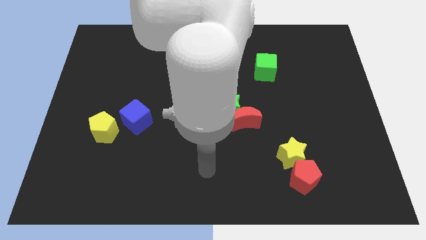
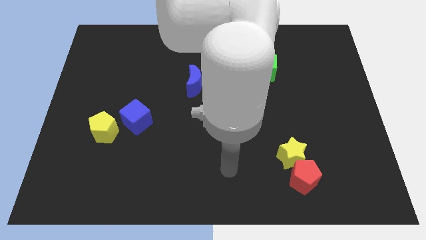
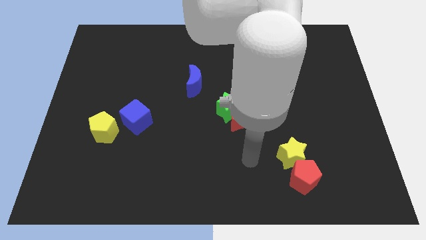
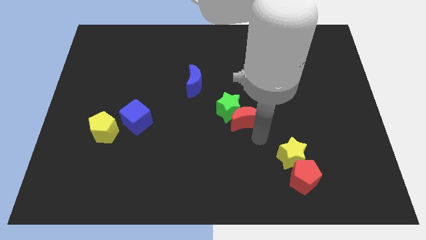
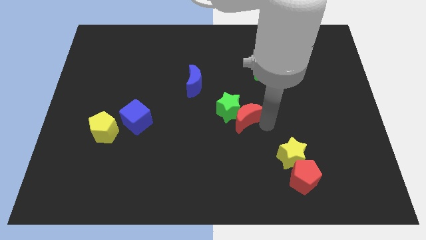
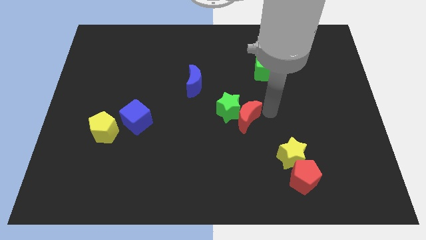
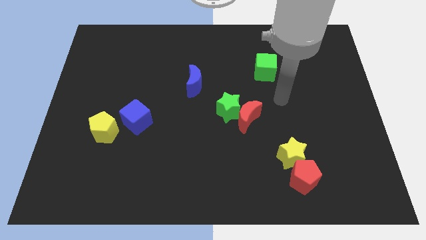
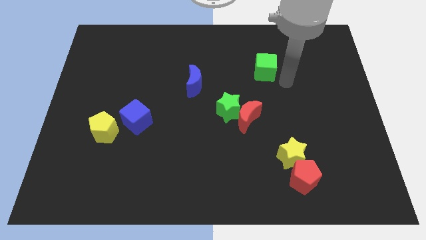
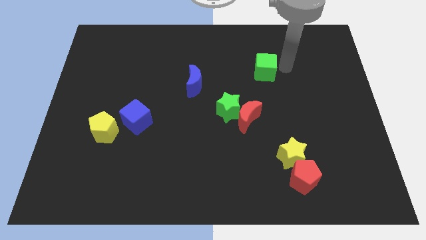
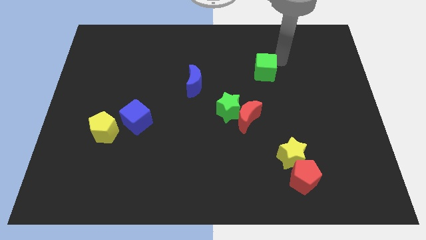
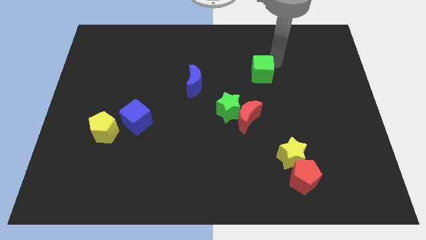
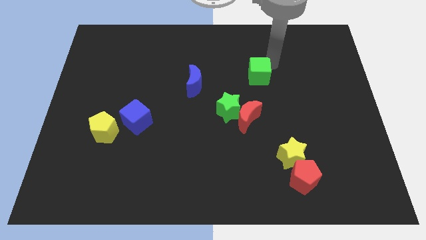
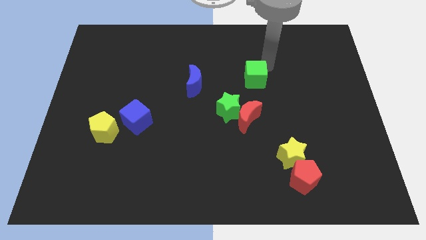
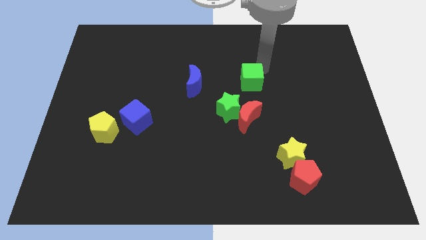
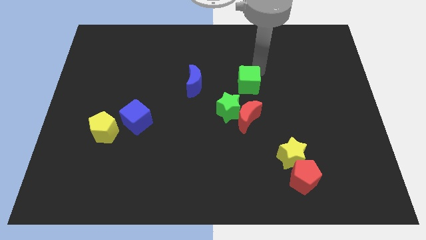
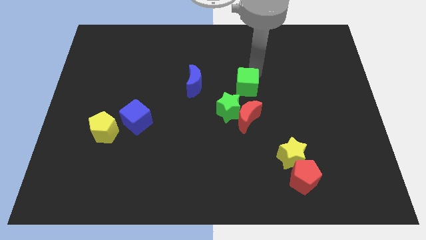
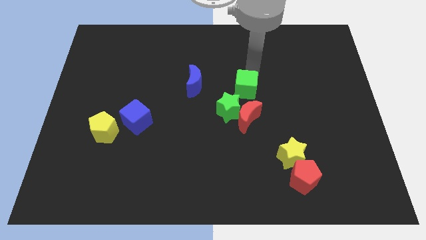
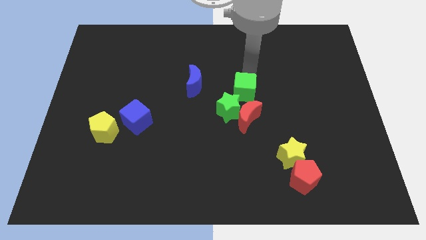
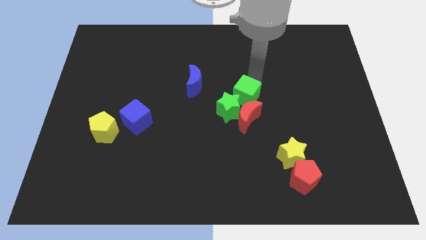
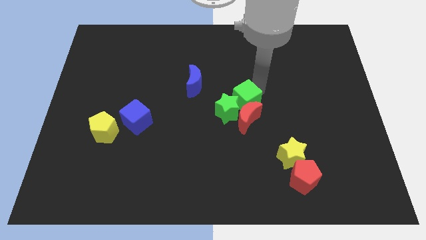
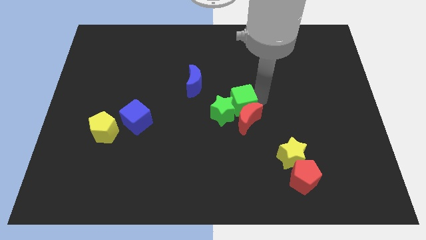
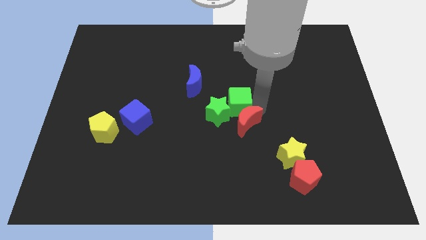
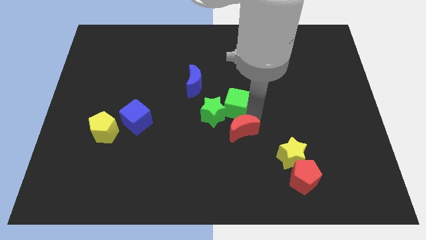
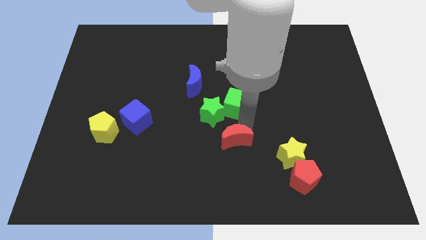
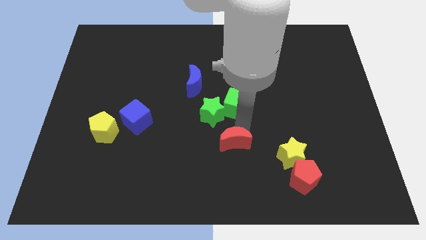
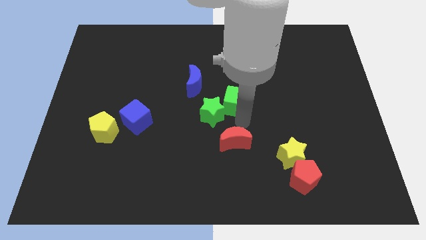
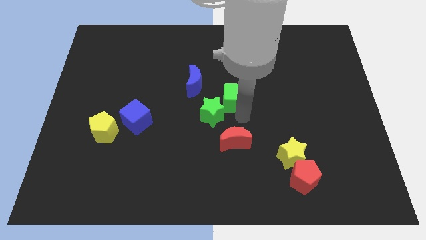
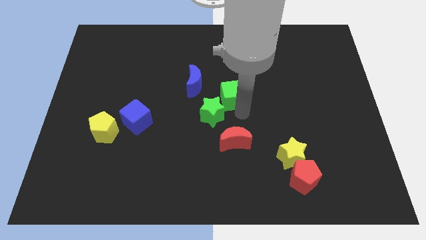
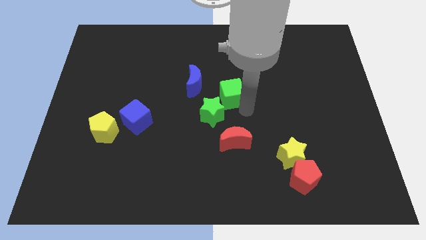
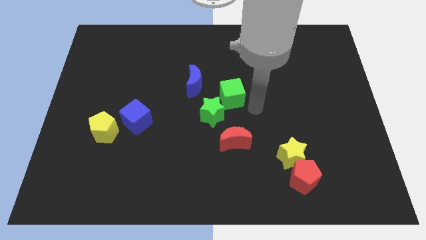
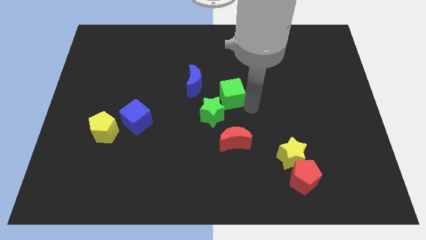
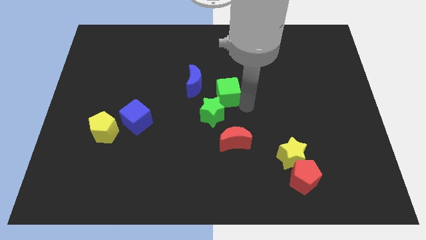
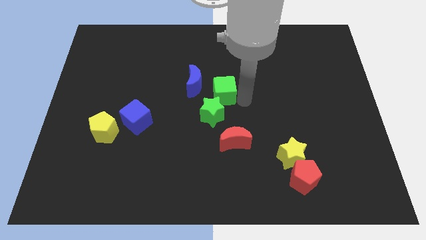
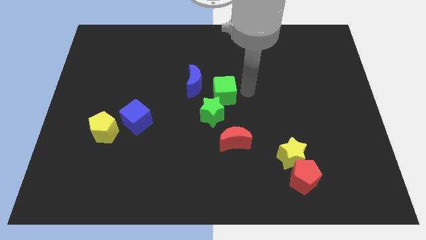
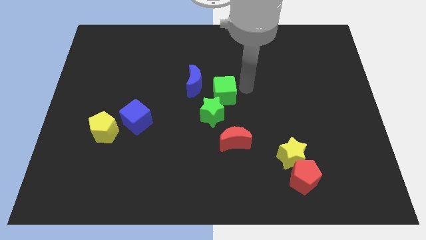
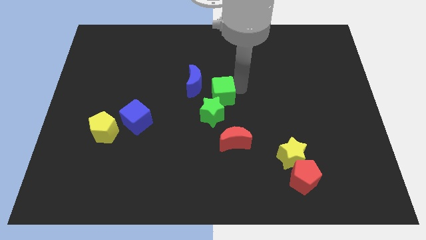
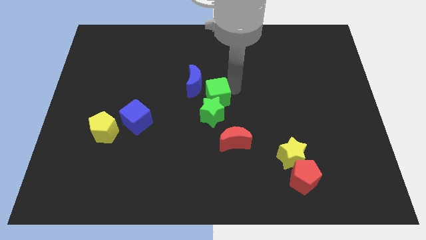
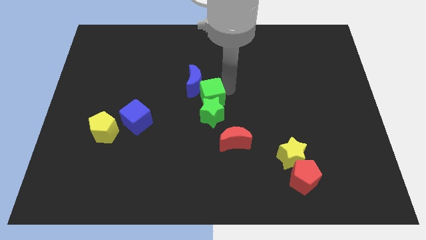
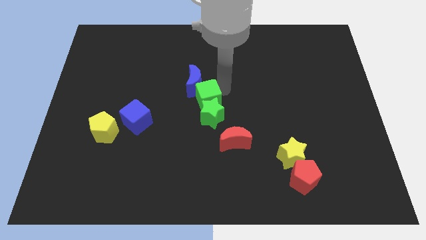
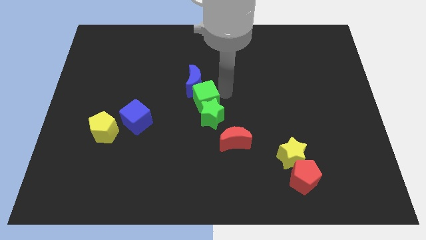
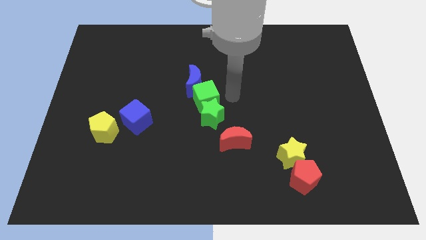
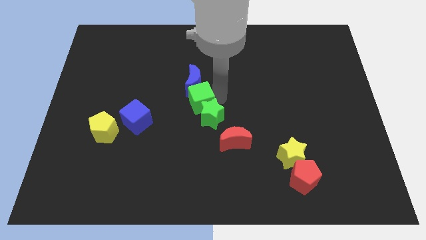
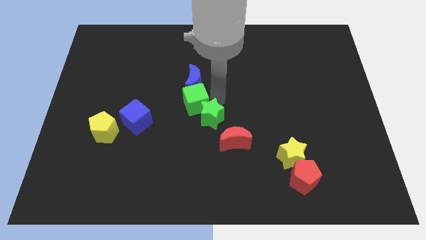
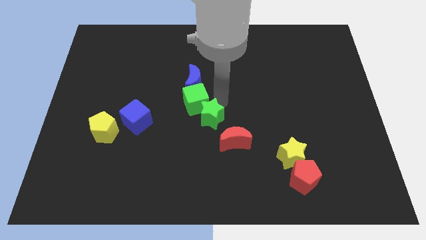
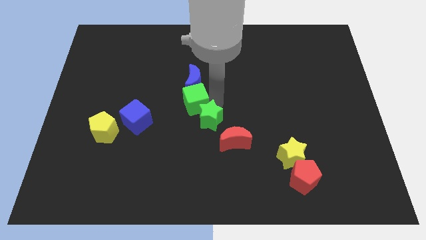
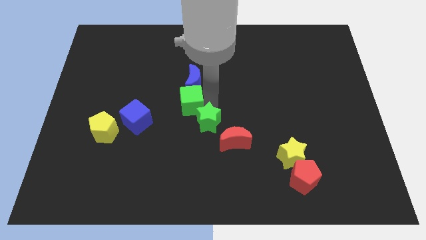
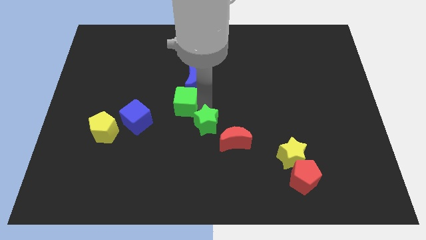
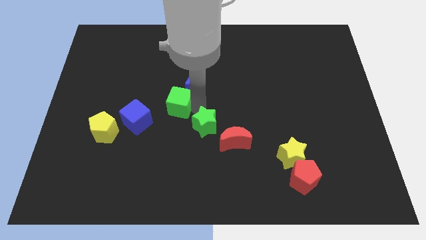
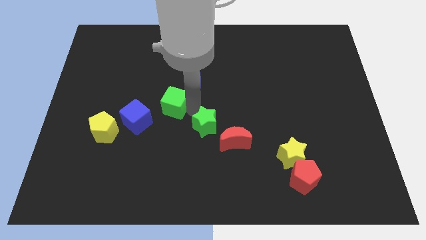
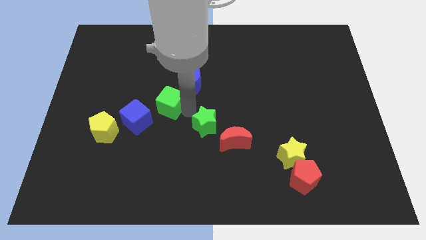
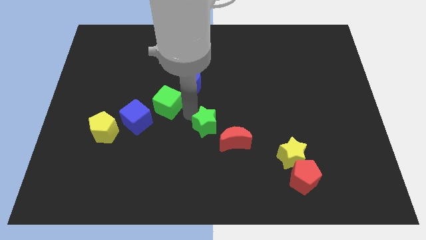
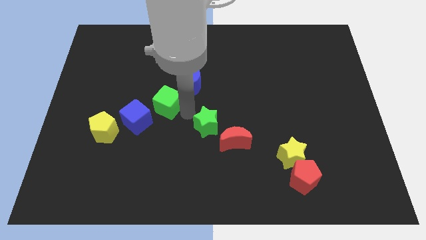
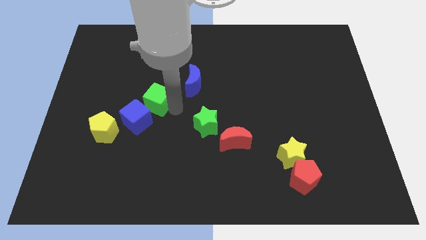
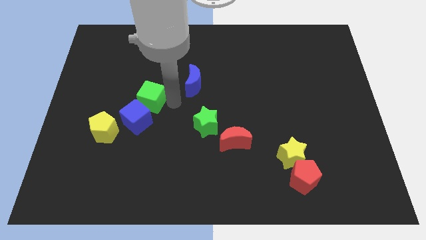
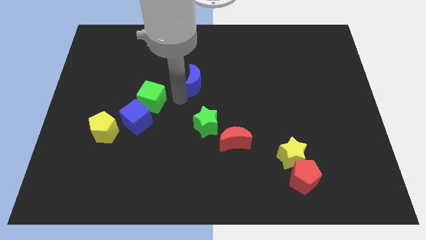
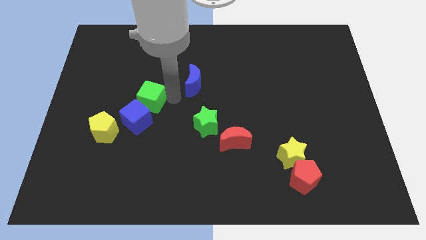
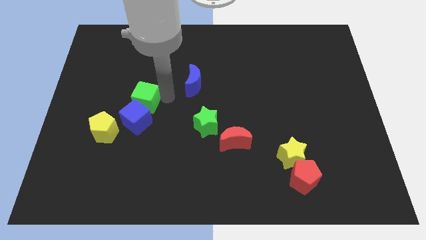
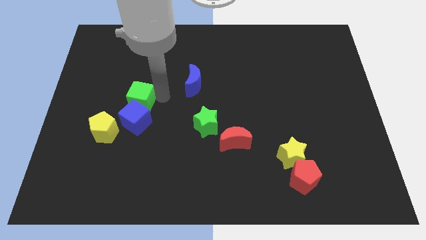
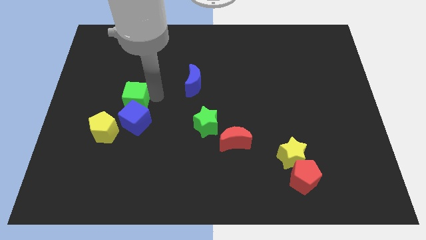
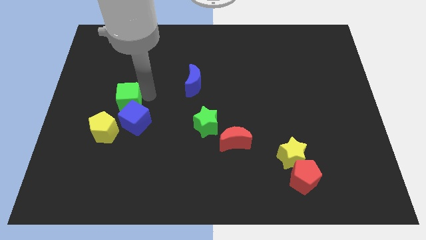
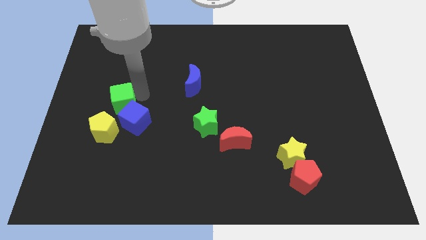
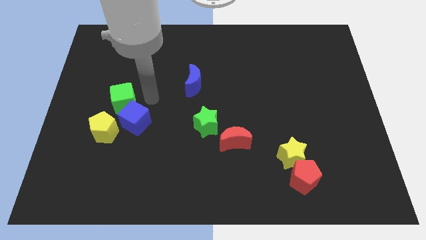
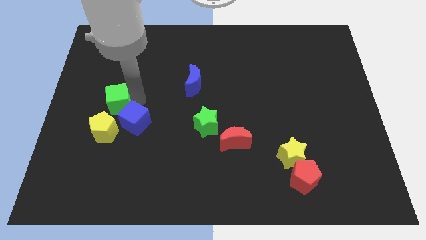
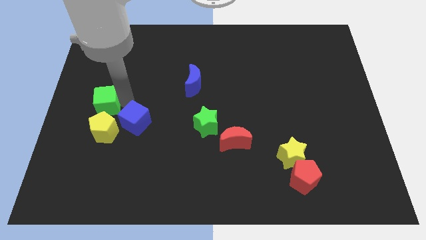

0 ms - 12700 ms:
push the green cube to the left side

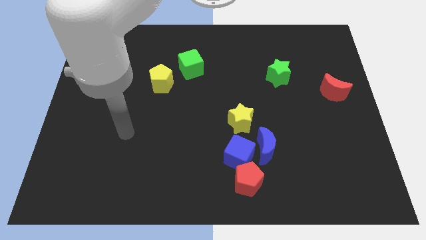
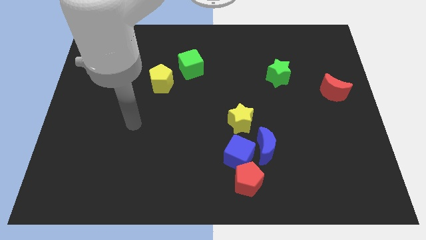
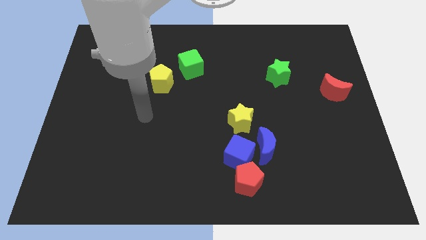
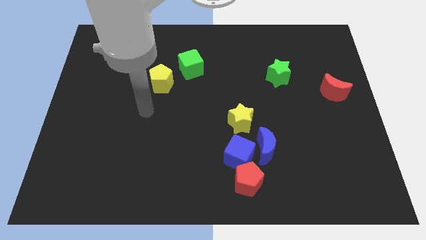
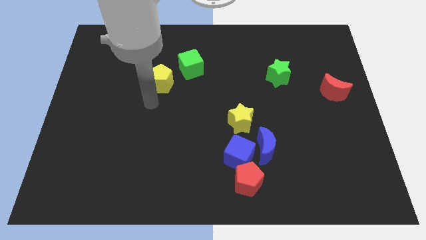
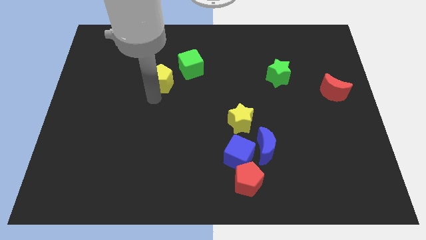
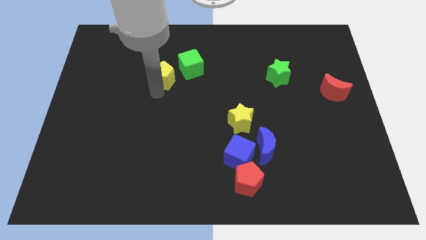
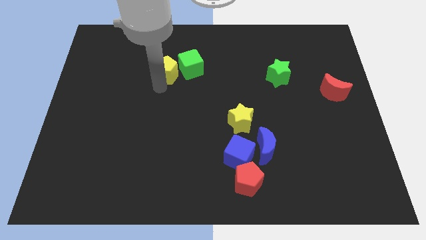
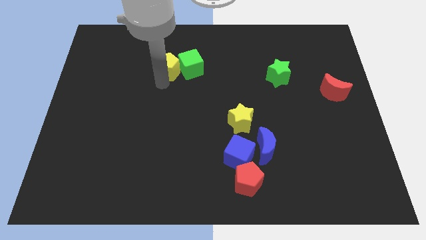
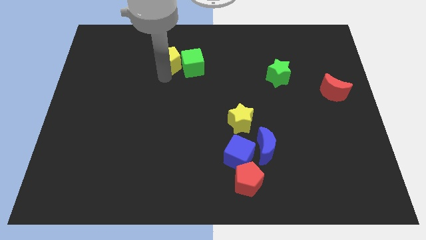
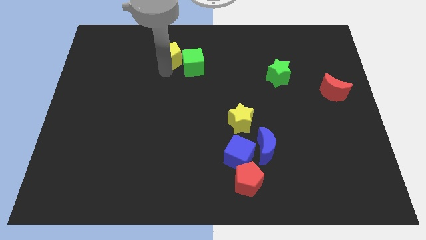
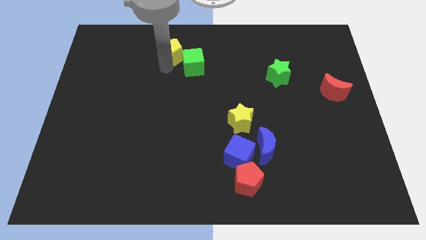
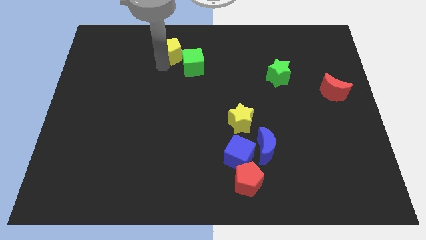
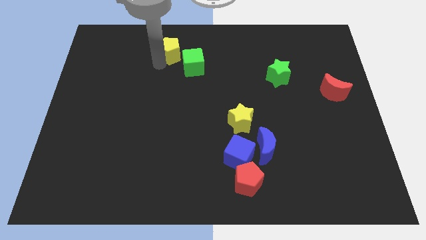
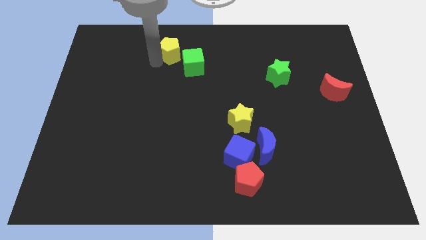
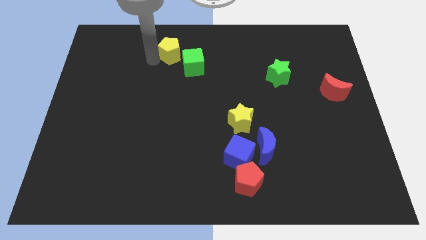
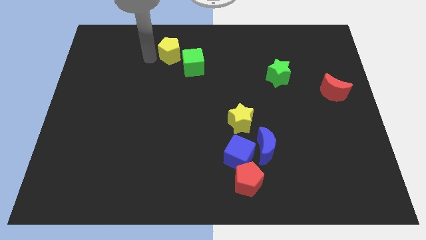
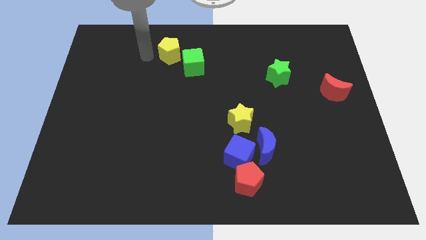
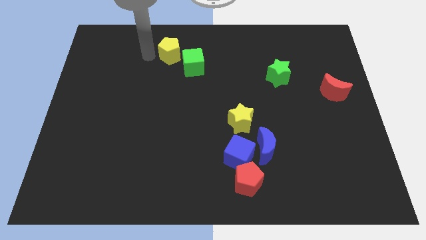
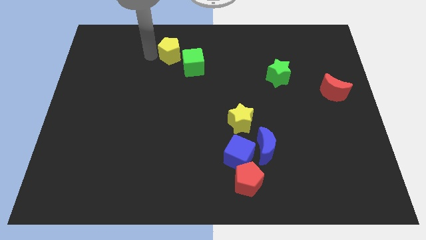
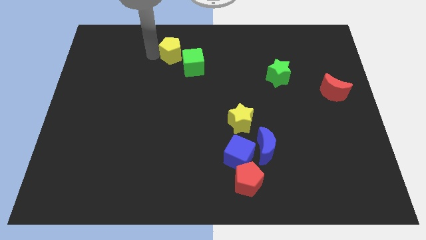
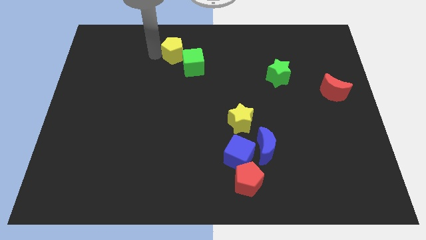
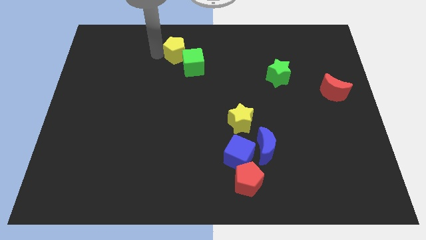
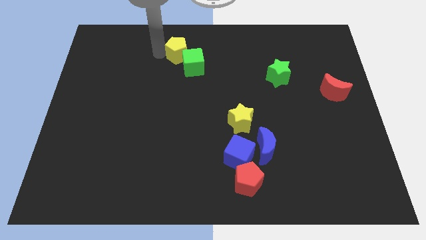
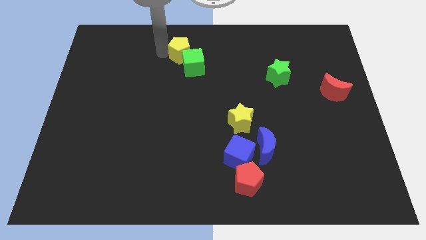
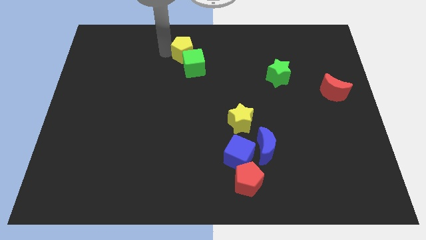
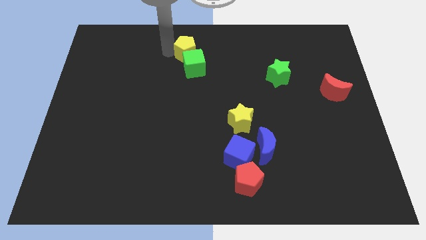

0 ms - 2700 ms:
move the yellow pentagon to the top
